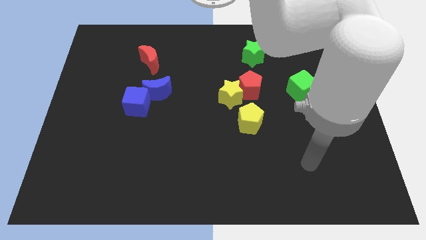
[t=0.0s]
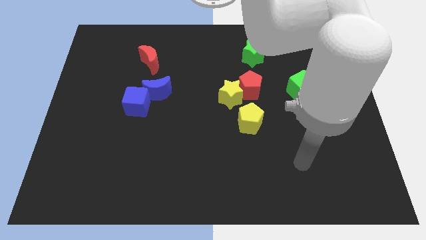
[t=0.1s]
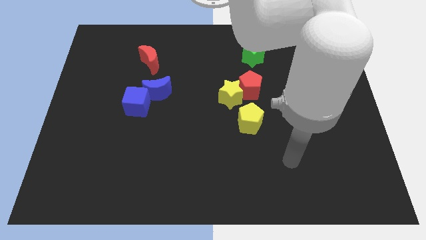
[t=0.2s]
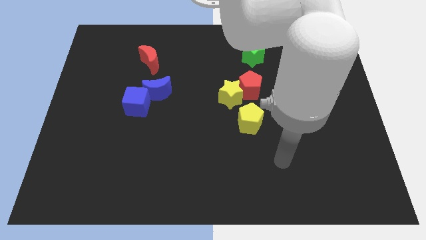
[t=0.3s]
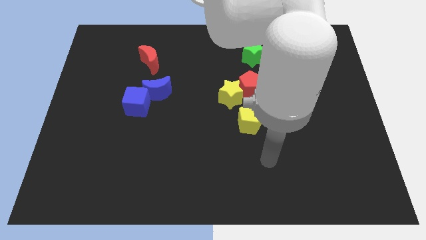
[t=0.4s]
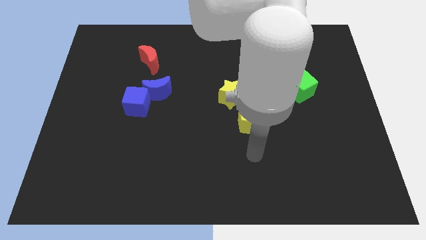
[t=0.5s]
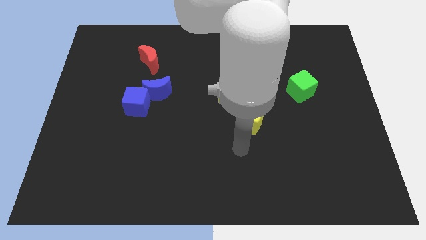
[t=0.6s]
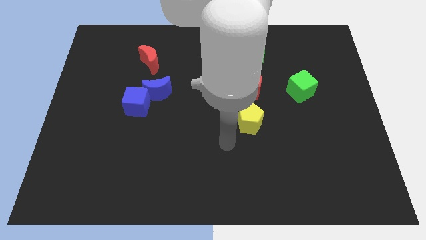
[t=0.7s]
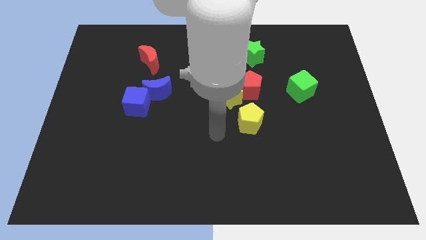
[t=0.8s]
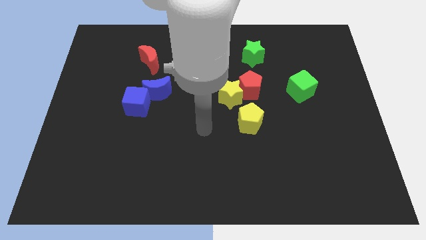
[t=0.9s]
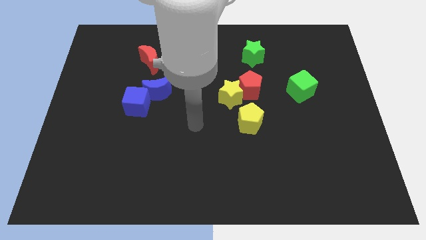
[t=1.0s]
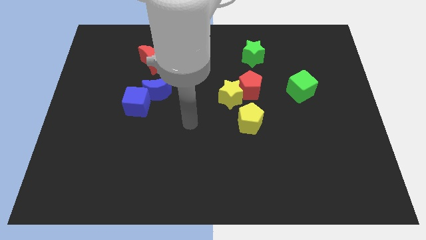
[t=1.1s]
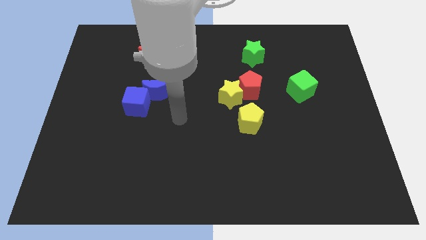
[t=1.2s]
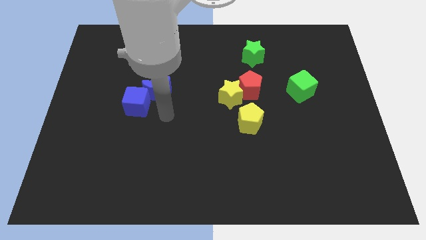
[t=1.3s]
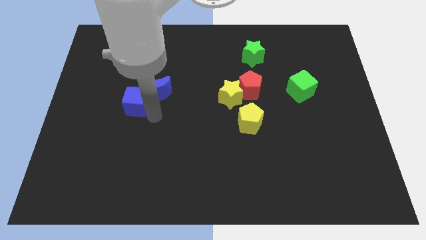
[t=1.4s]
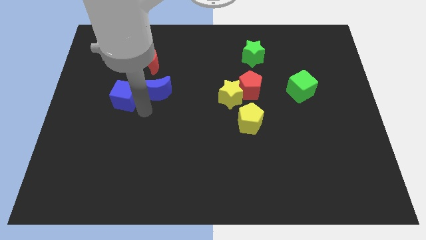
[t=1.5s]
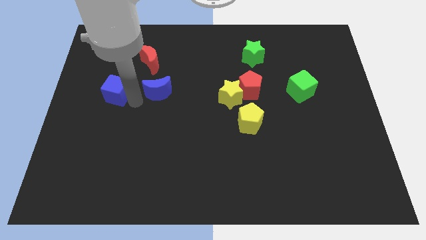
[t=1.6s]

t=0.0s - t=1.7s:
separate the blue moon from the blue cube

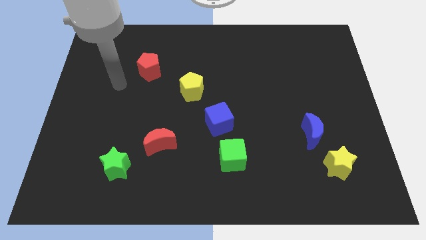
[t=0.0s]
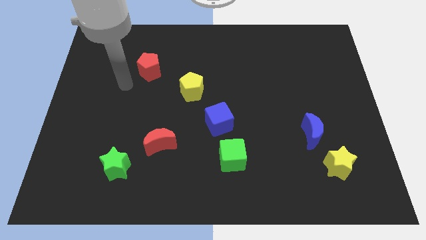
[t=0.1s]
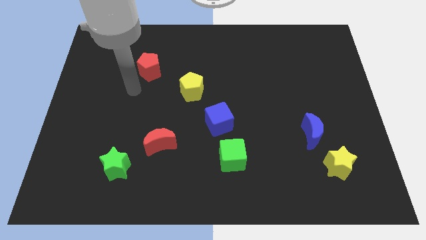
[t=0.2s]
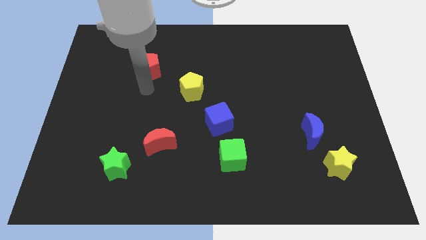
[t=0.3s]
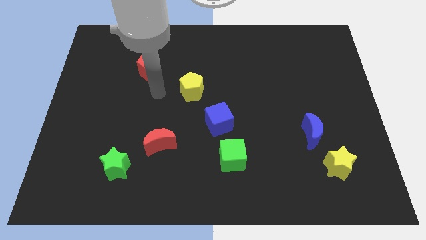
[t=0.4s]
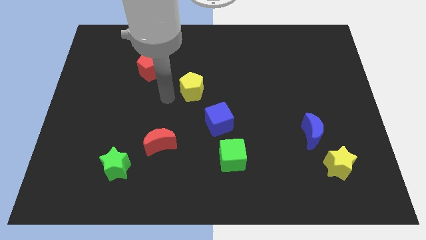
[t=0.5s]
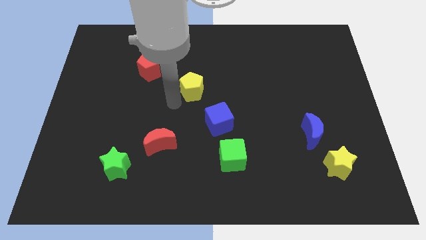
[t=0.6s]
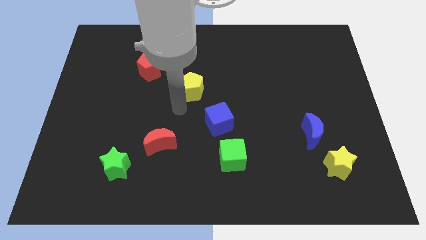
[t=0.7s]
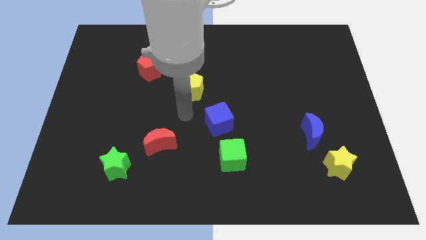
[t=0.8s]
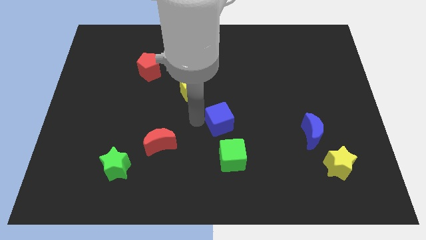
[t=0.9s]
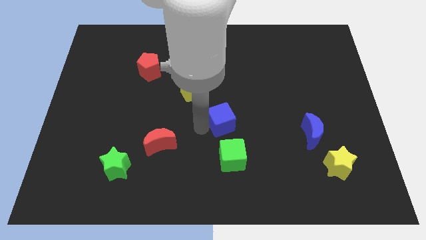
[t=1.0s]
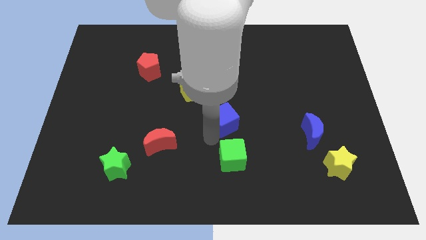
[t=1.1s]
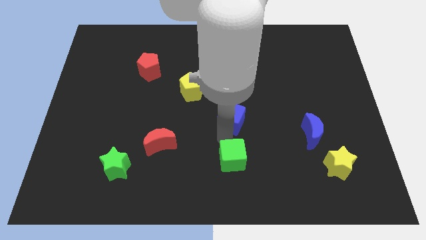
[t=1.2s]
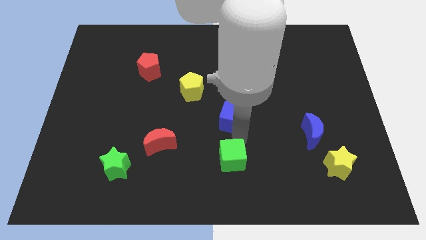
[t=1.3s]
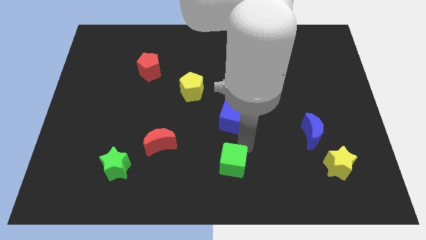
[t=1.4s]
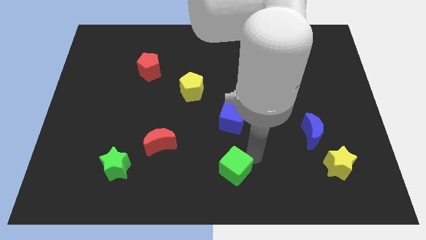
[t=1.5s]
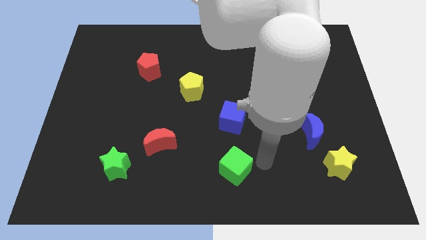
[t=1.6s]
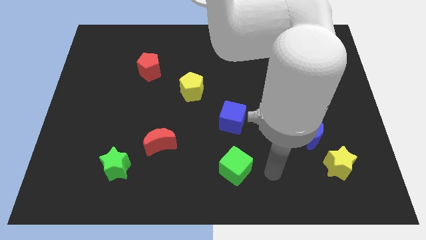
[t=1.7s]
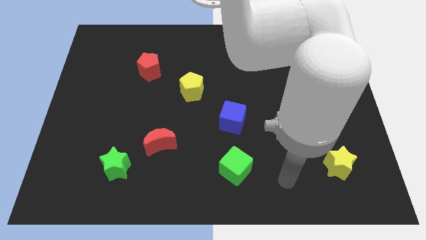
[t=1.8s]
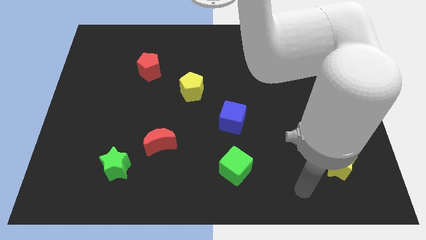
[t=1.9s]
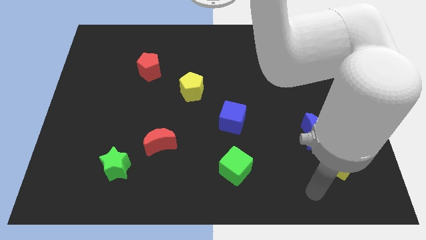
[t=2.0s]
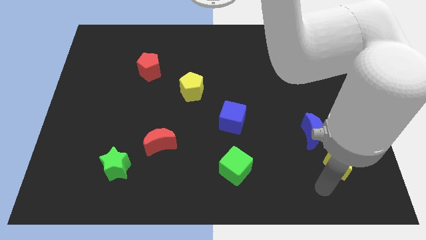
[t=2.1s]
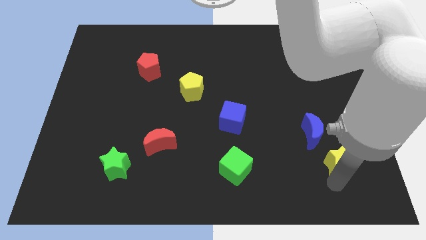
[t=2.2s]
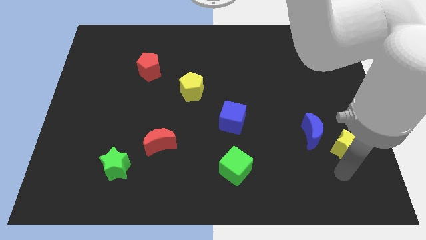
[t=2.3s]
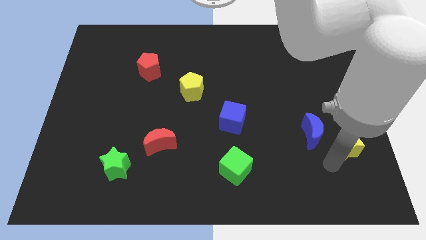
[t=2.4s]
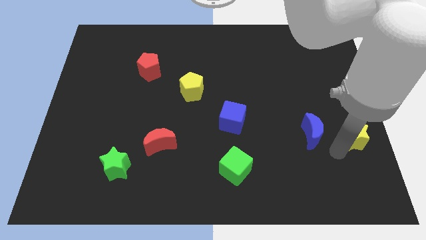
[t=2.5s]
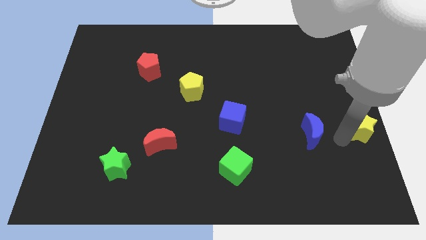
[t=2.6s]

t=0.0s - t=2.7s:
separate the blue moon from the yellow star

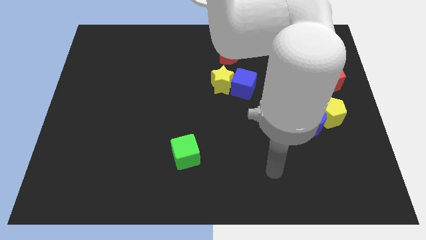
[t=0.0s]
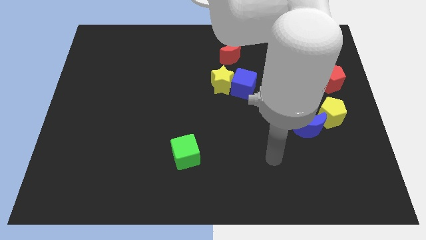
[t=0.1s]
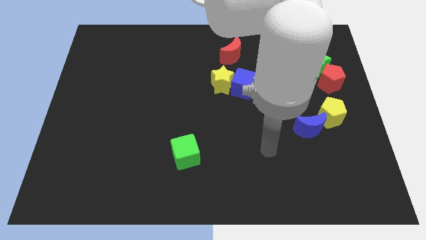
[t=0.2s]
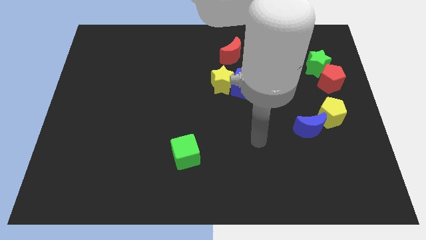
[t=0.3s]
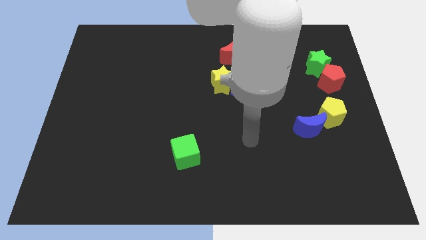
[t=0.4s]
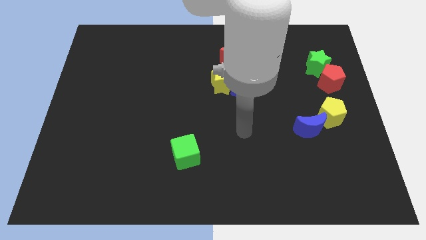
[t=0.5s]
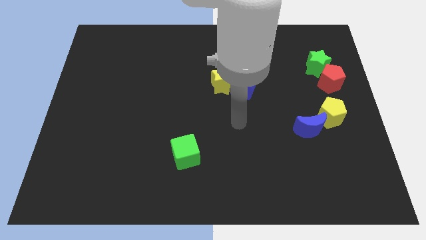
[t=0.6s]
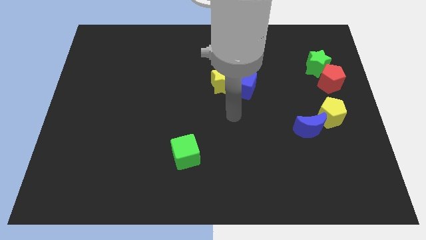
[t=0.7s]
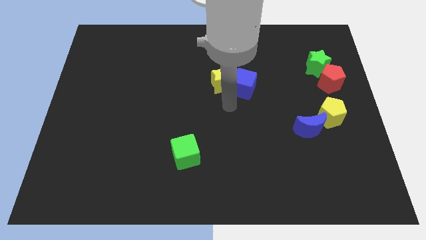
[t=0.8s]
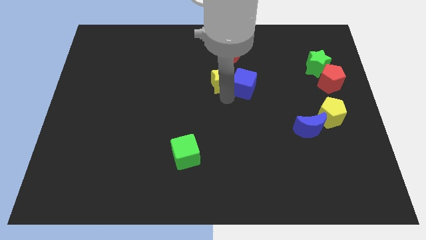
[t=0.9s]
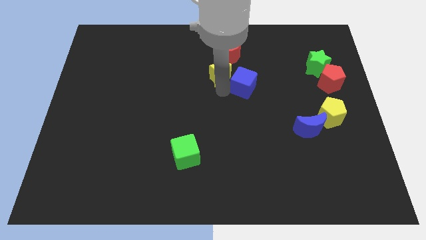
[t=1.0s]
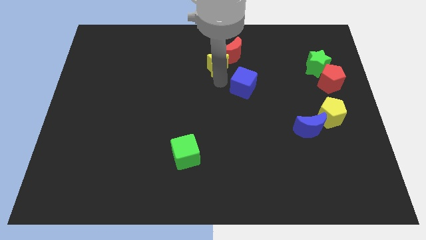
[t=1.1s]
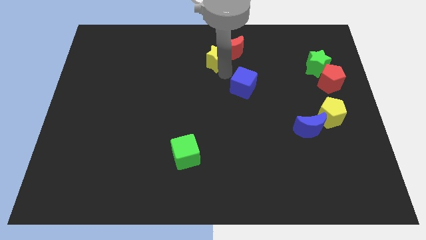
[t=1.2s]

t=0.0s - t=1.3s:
move the blue cube away from the yellow star

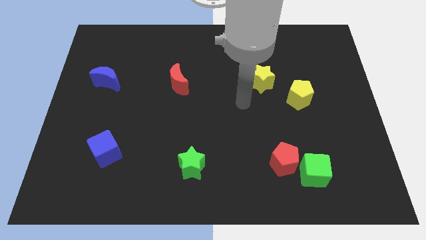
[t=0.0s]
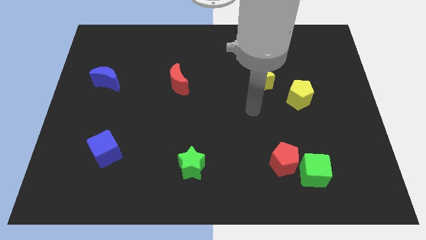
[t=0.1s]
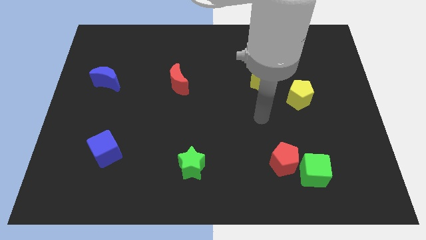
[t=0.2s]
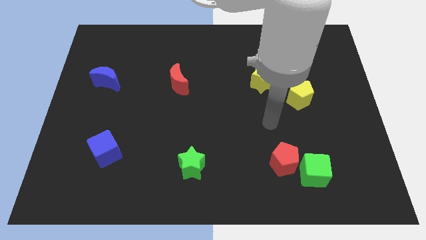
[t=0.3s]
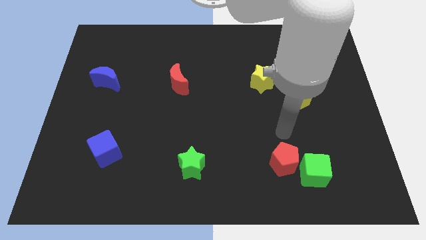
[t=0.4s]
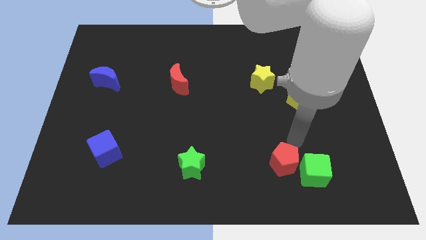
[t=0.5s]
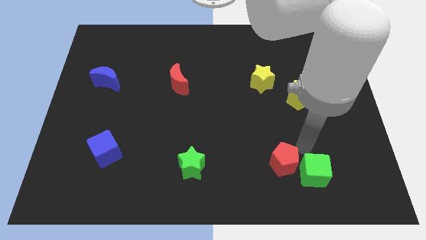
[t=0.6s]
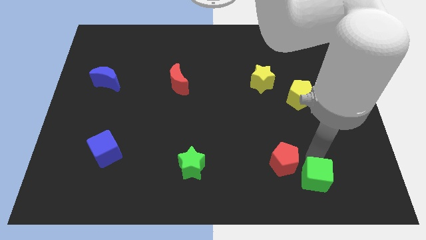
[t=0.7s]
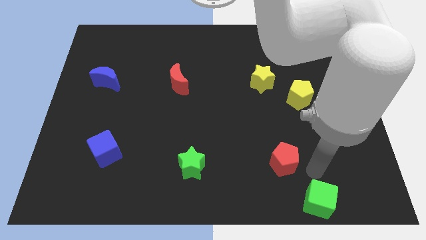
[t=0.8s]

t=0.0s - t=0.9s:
separate the red pentagon from the green cube

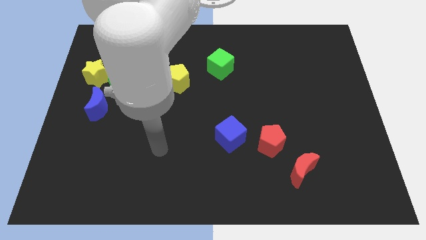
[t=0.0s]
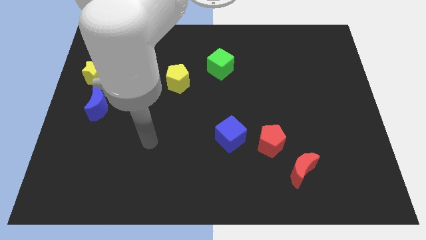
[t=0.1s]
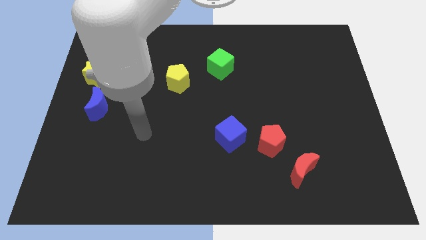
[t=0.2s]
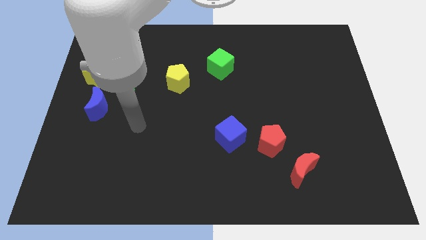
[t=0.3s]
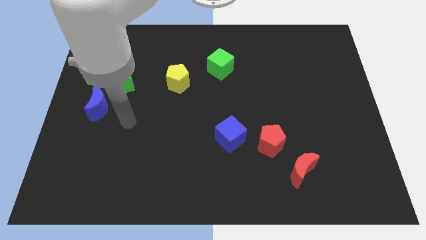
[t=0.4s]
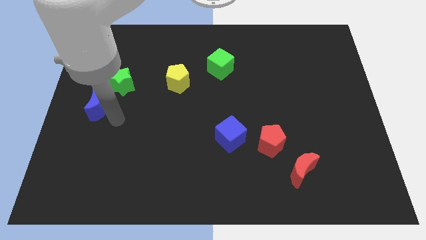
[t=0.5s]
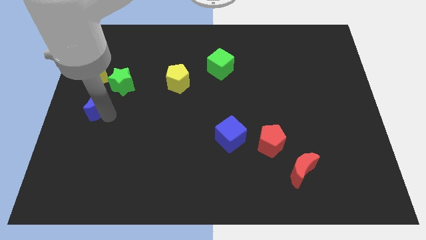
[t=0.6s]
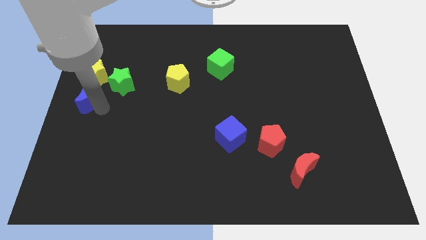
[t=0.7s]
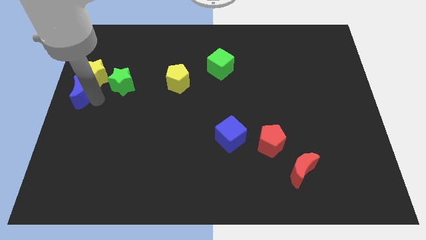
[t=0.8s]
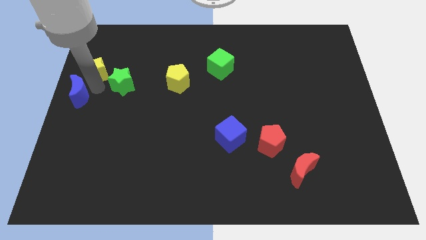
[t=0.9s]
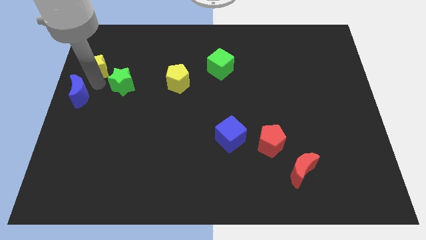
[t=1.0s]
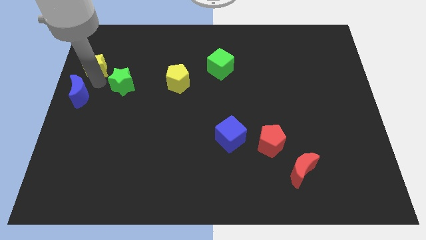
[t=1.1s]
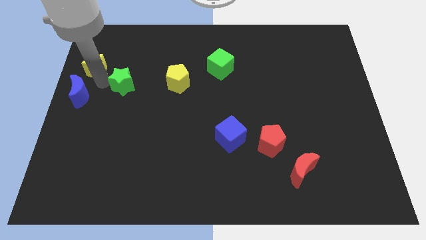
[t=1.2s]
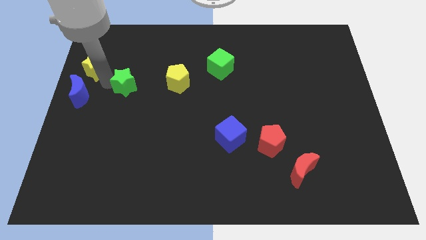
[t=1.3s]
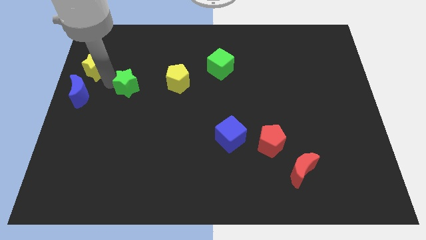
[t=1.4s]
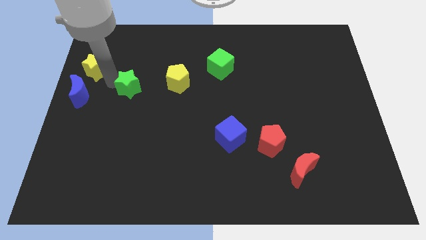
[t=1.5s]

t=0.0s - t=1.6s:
separate the green star from the yellow star and blue moon

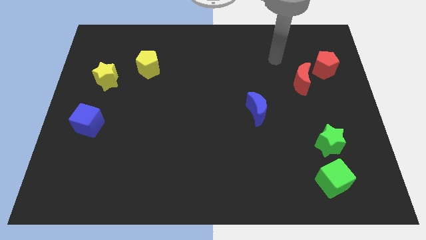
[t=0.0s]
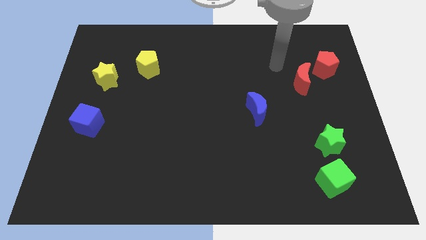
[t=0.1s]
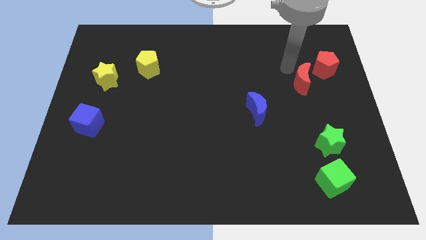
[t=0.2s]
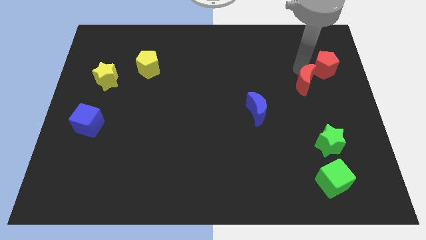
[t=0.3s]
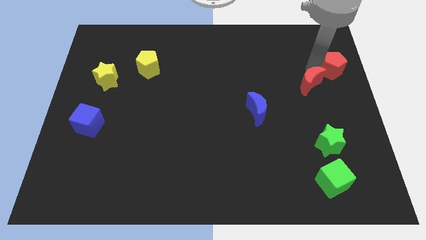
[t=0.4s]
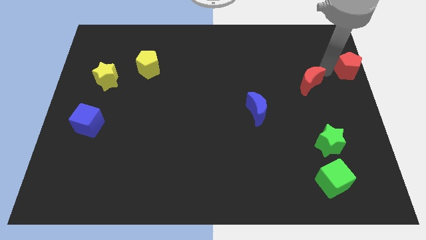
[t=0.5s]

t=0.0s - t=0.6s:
pull the red moon apart from the red pentagon

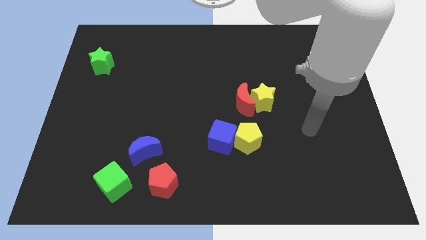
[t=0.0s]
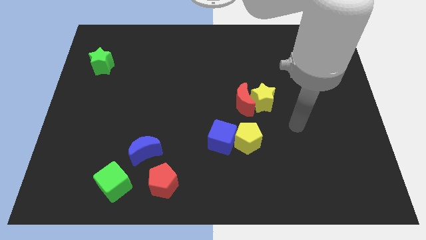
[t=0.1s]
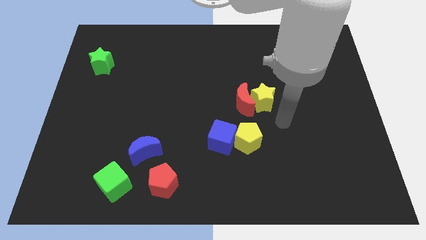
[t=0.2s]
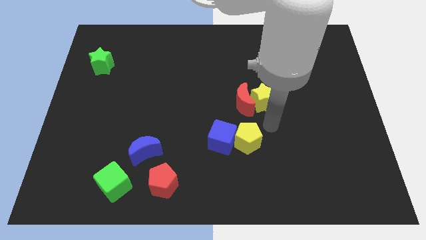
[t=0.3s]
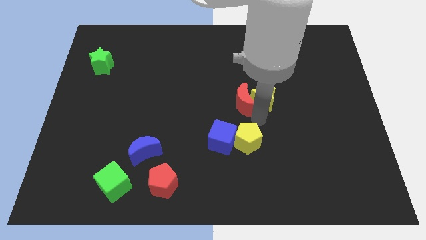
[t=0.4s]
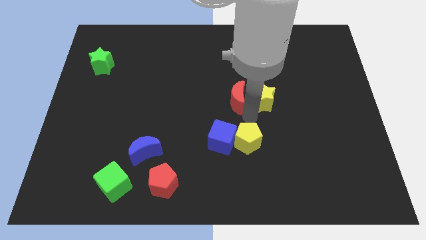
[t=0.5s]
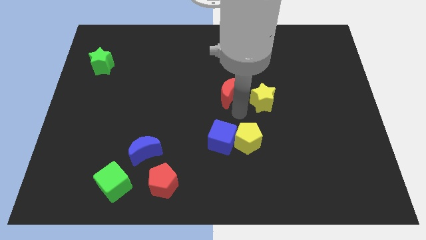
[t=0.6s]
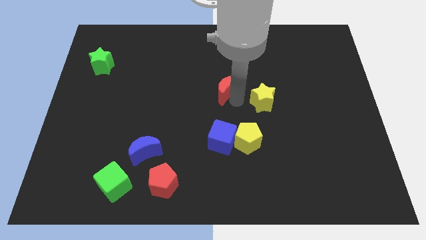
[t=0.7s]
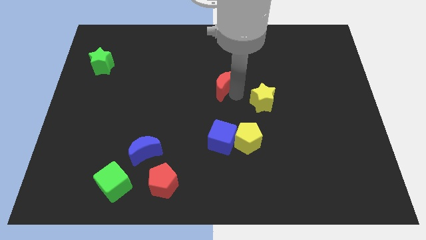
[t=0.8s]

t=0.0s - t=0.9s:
pull the yellow star apart from the red moon
